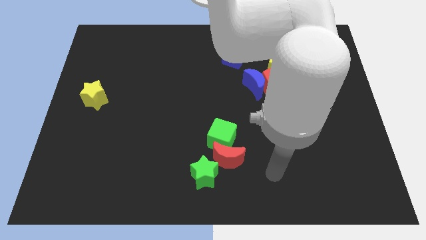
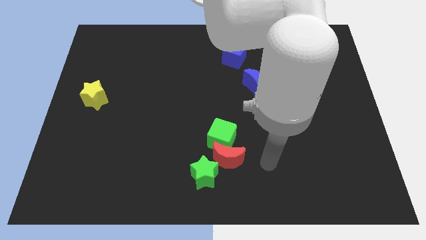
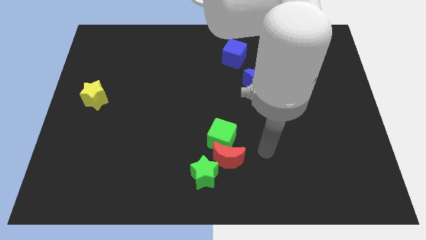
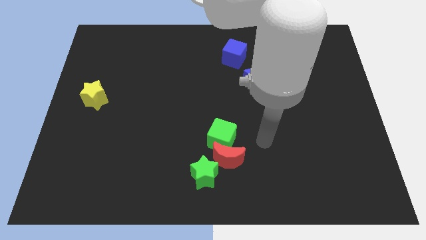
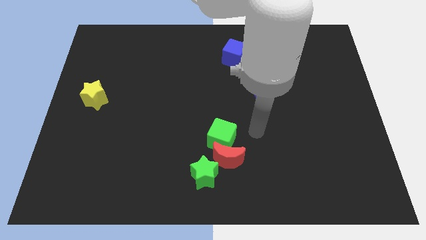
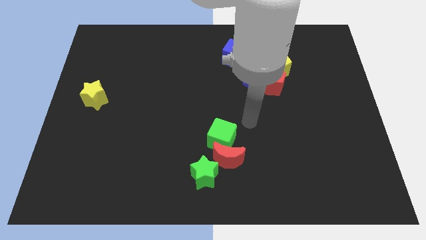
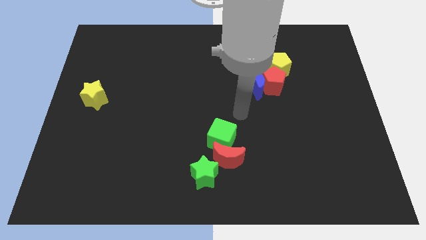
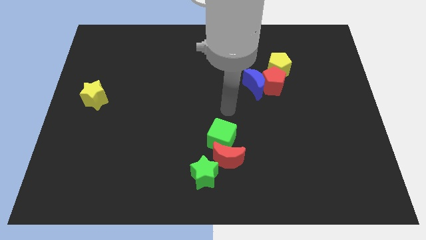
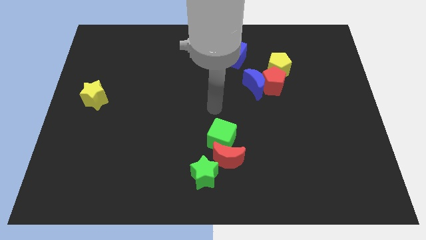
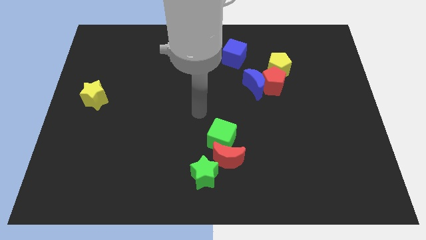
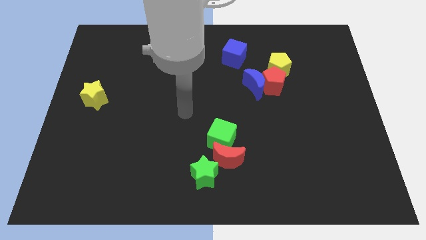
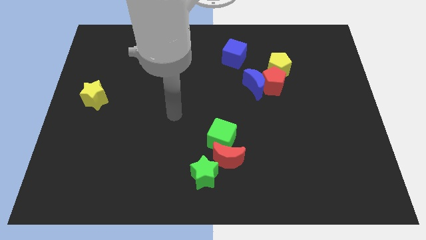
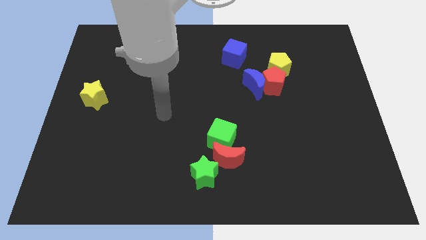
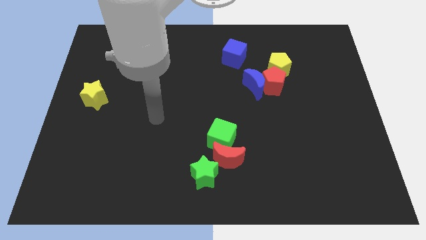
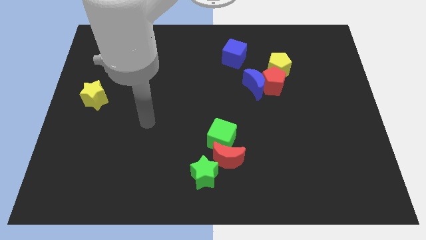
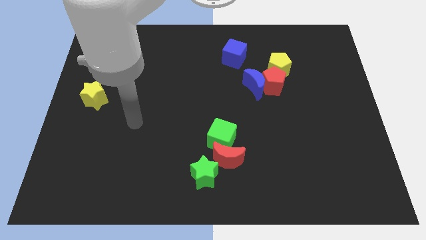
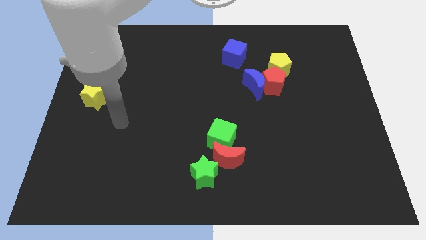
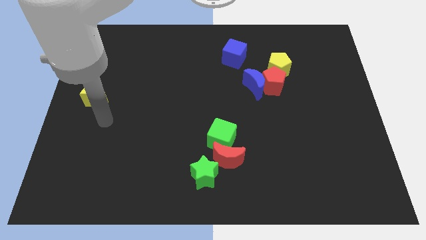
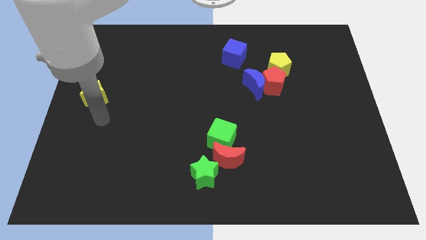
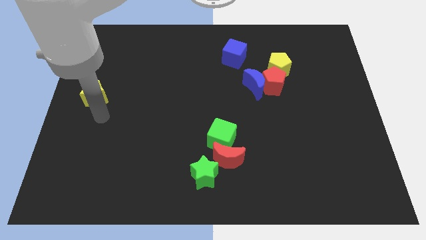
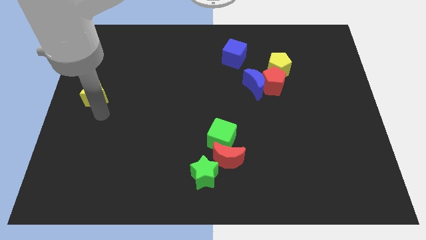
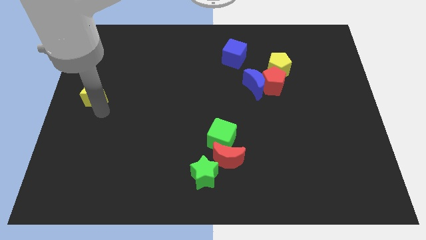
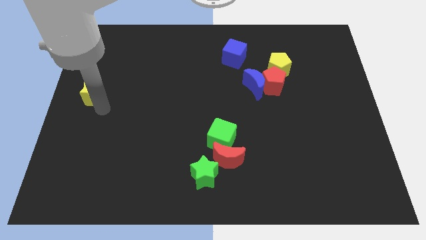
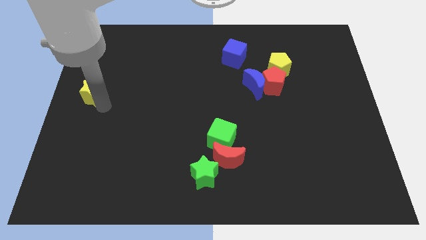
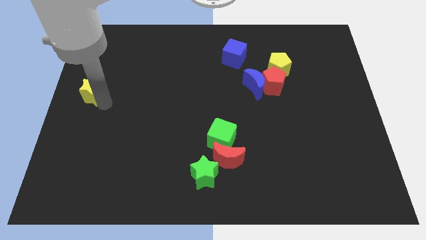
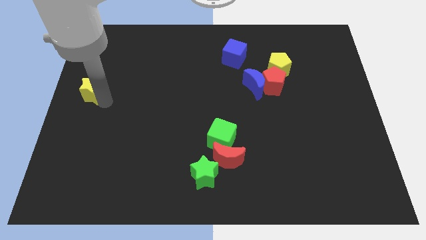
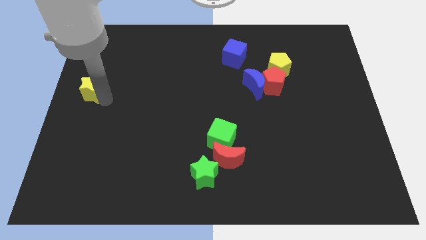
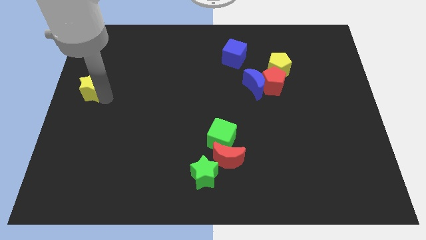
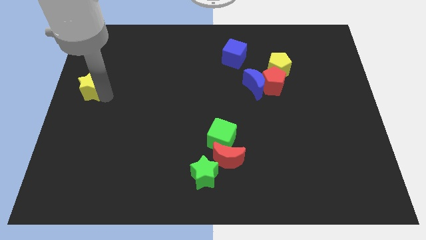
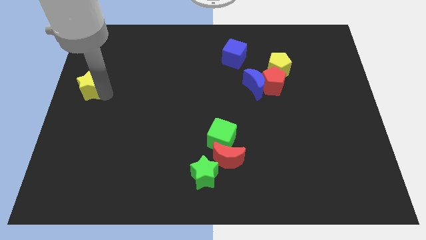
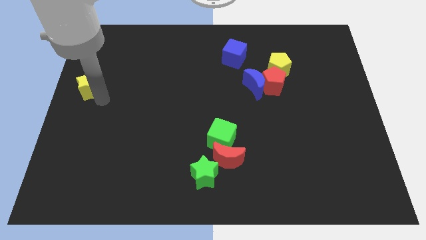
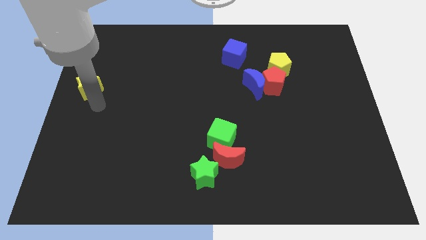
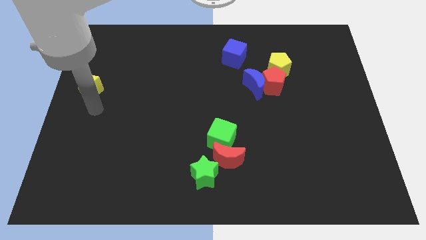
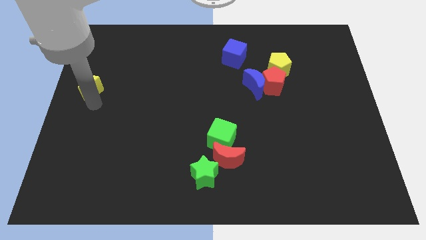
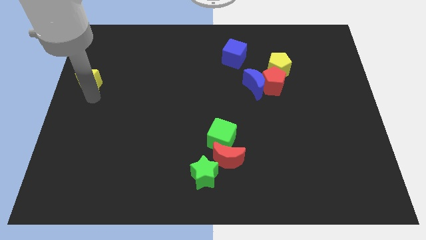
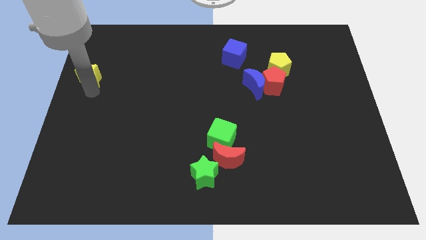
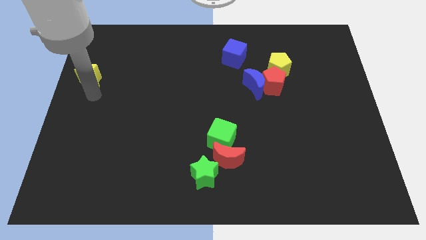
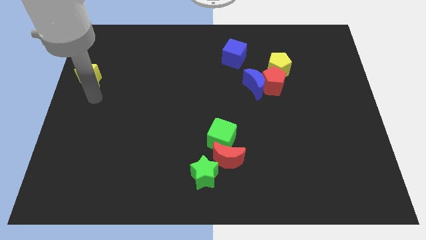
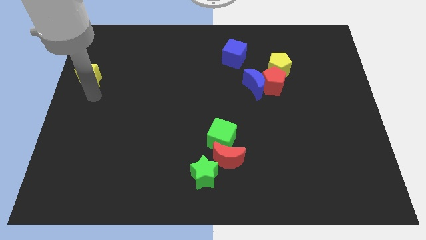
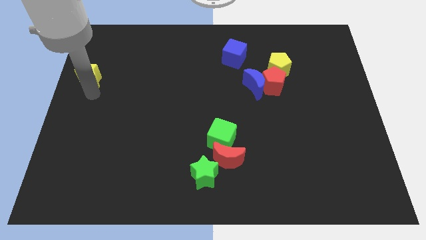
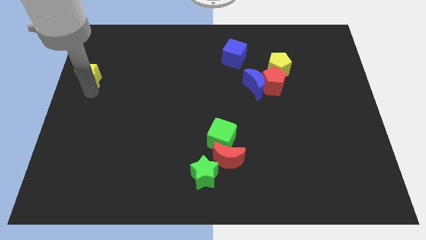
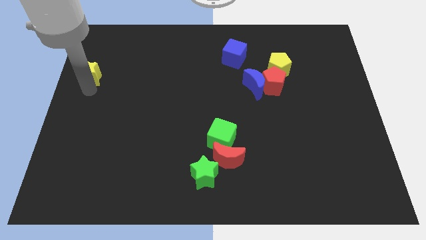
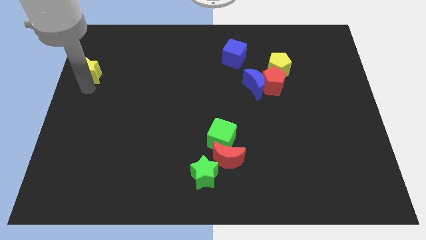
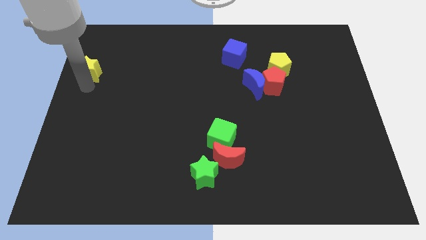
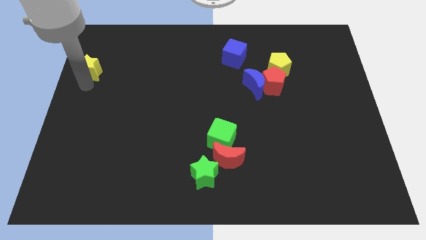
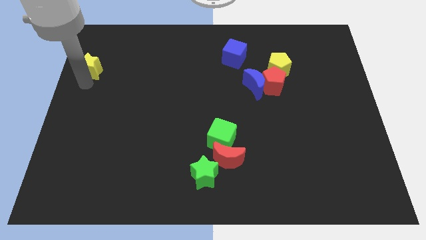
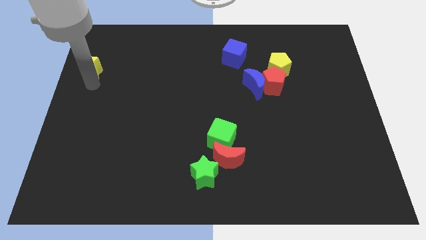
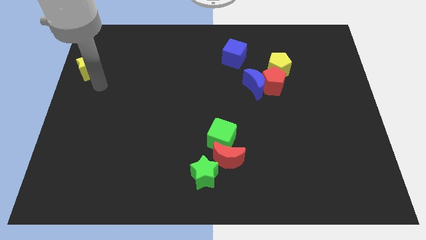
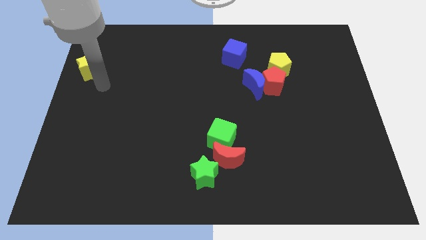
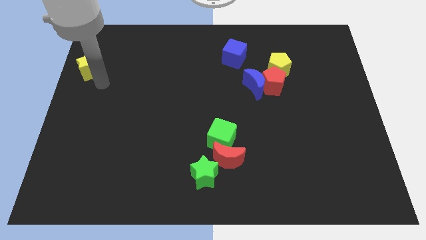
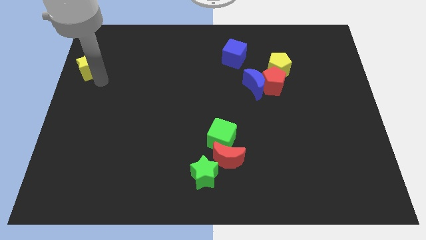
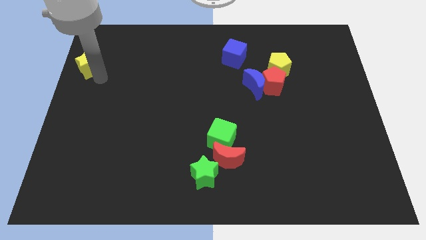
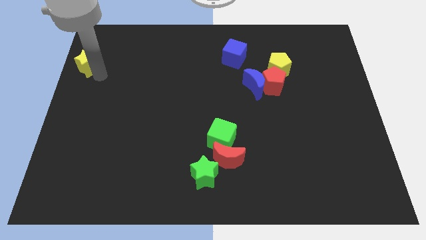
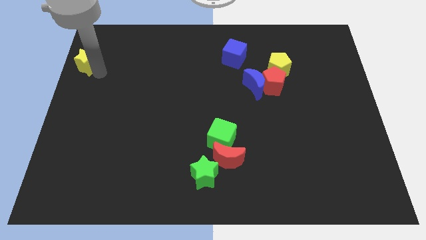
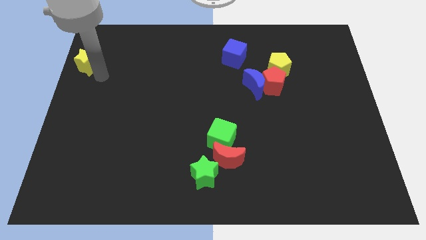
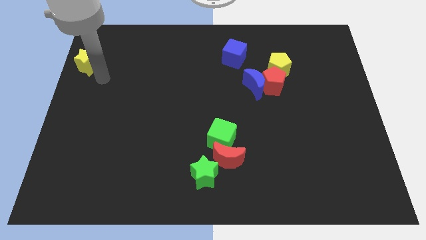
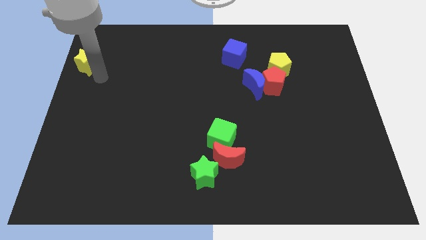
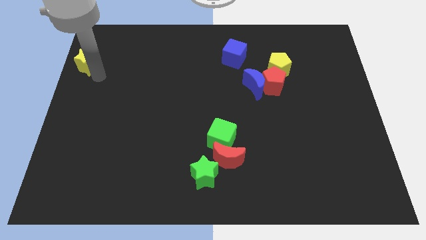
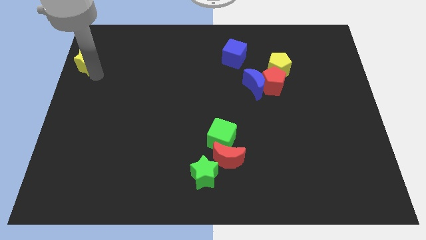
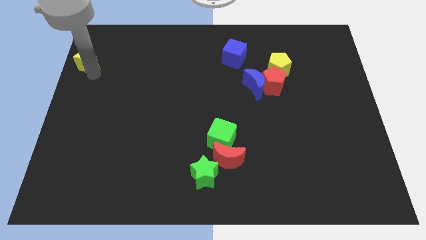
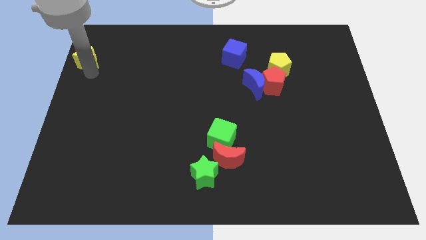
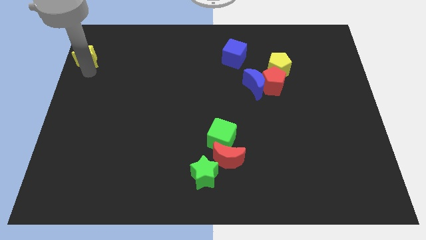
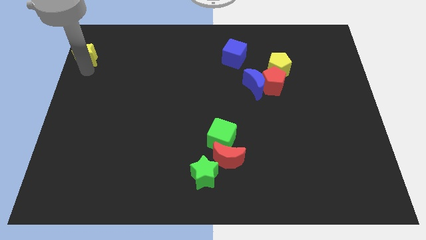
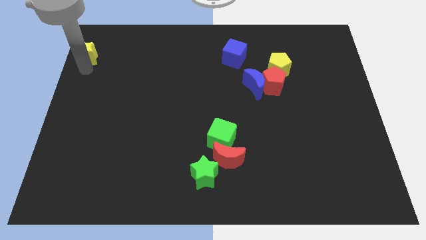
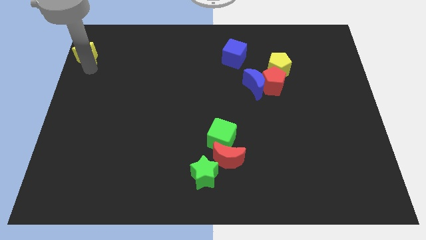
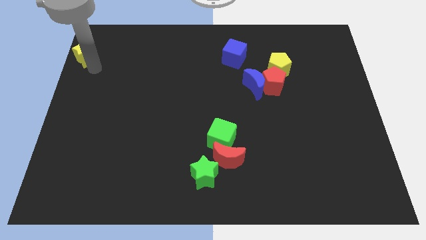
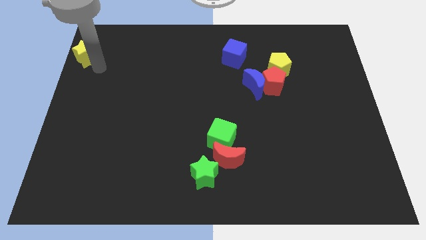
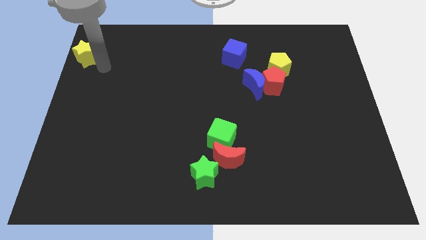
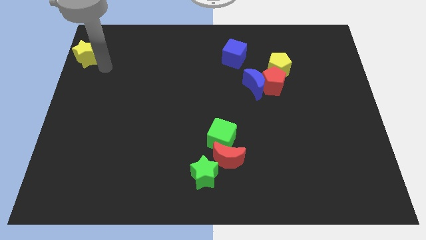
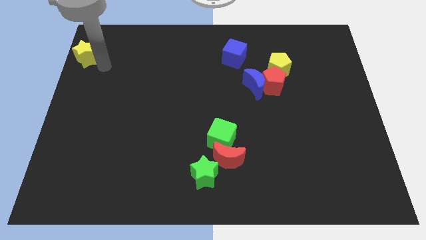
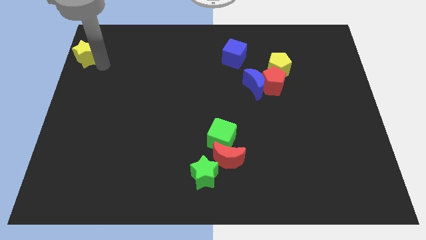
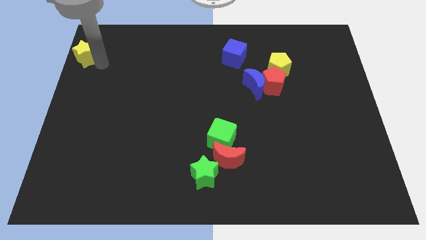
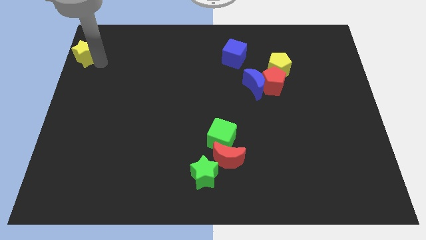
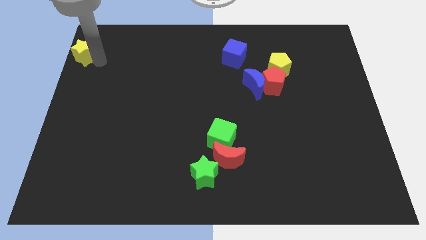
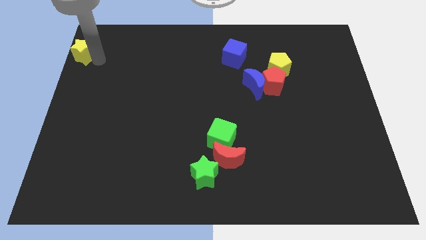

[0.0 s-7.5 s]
put the yellow star to the upper left corner
